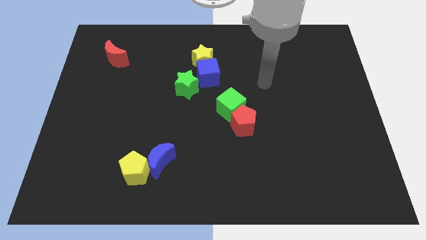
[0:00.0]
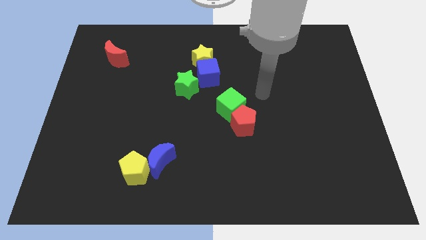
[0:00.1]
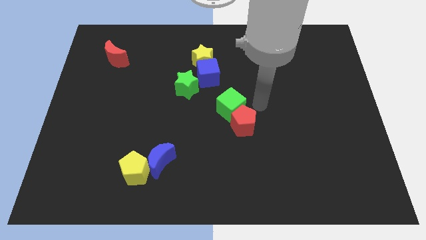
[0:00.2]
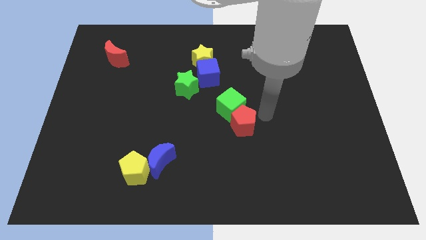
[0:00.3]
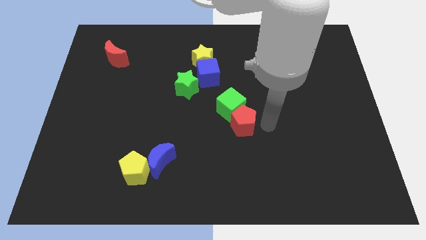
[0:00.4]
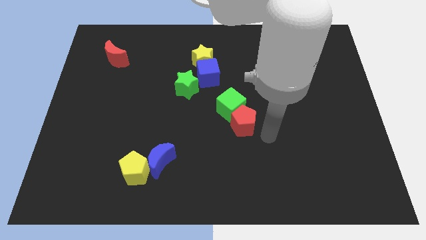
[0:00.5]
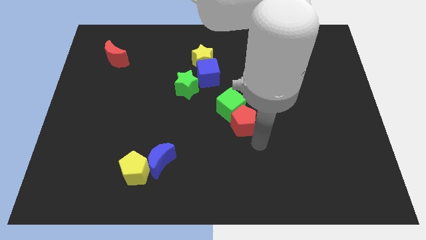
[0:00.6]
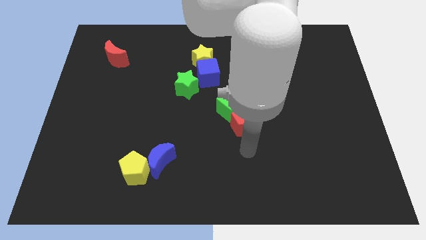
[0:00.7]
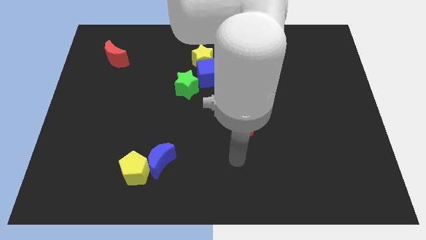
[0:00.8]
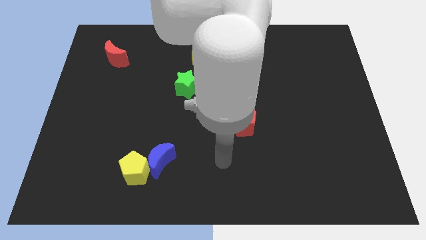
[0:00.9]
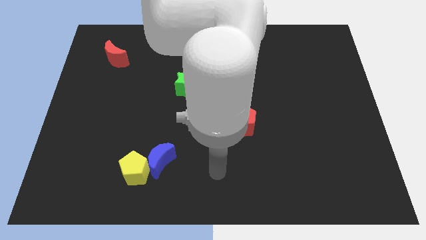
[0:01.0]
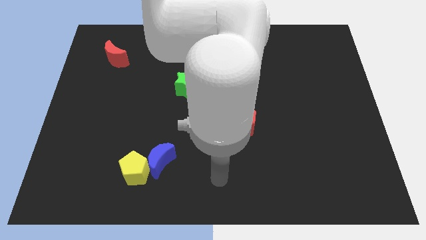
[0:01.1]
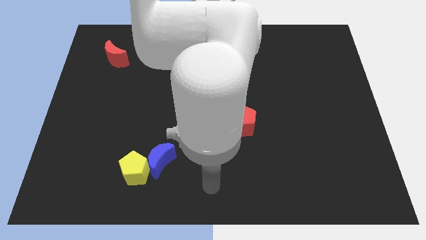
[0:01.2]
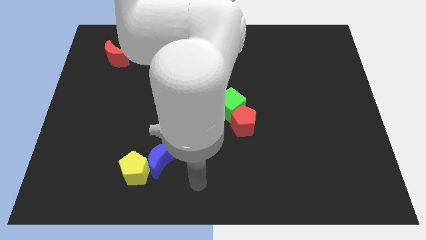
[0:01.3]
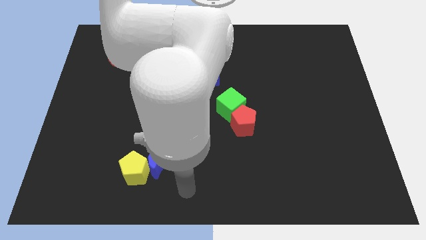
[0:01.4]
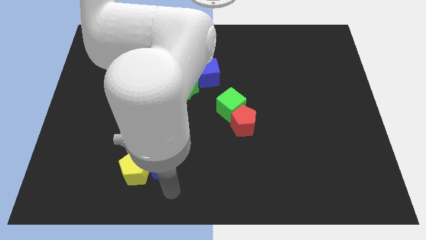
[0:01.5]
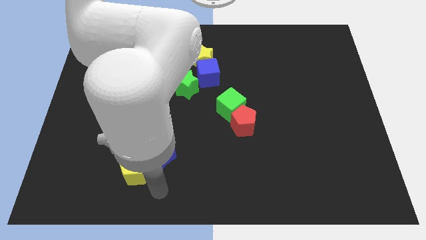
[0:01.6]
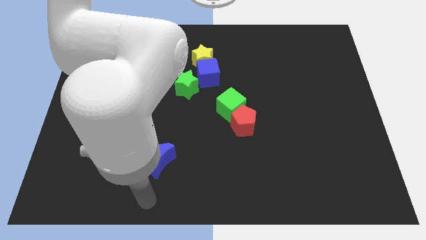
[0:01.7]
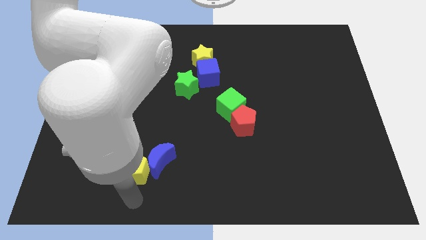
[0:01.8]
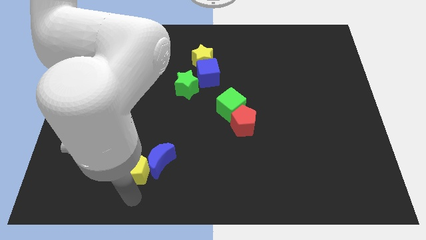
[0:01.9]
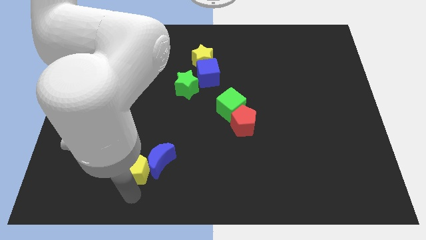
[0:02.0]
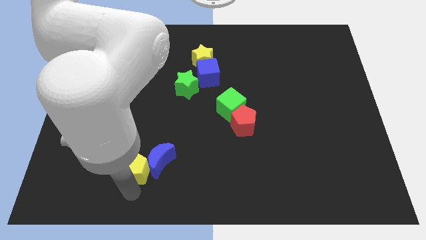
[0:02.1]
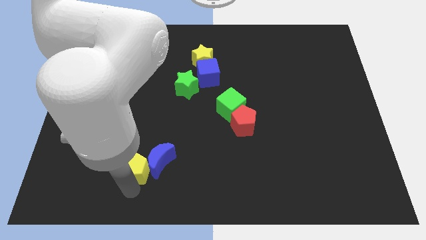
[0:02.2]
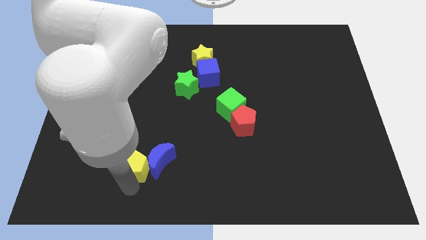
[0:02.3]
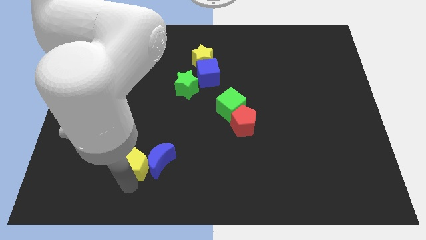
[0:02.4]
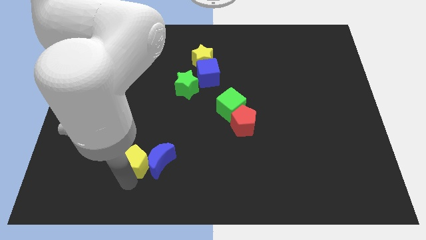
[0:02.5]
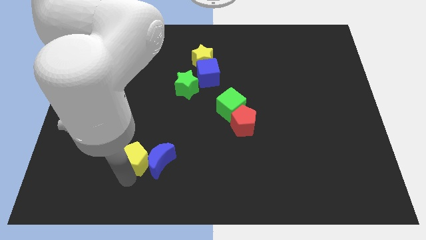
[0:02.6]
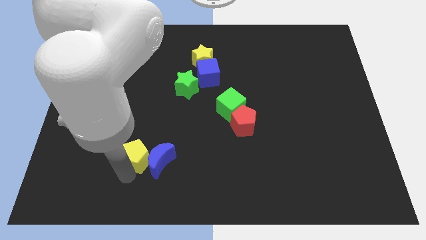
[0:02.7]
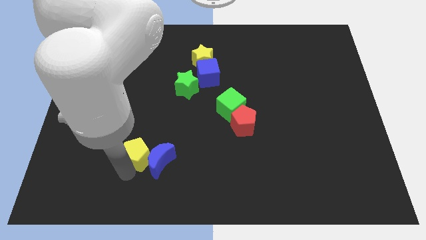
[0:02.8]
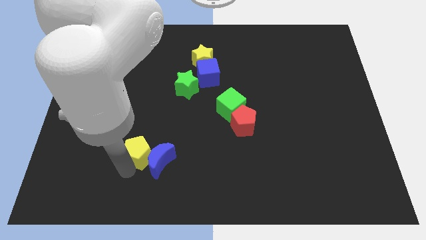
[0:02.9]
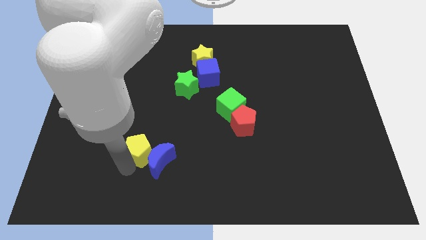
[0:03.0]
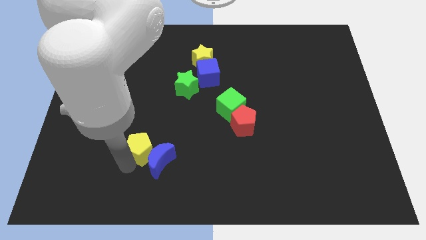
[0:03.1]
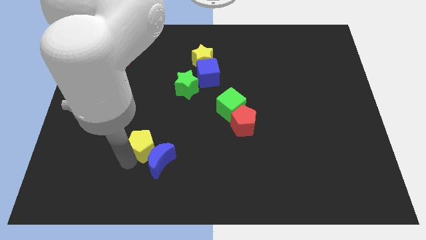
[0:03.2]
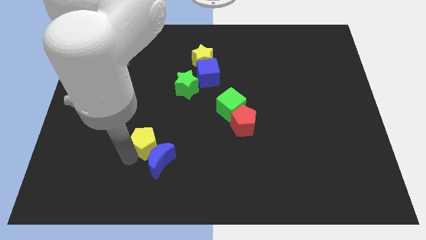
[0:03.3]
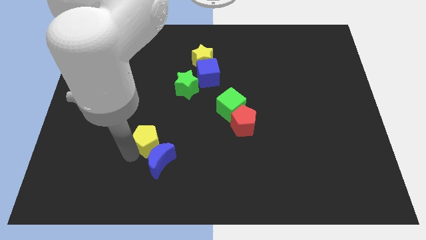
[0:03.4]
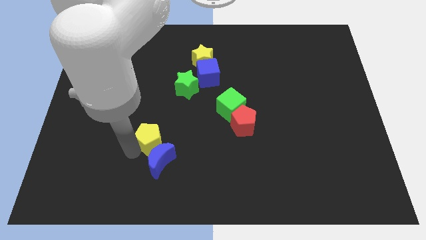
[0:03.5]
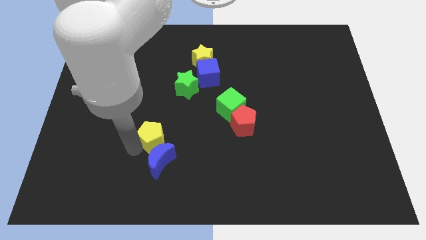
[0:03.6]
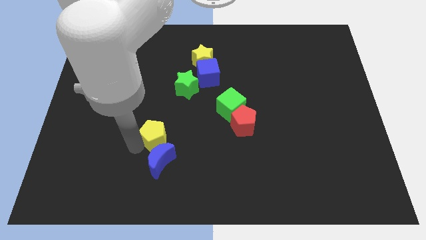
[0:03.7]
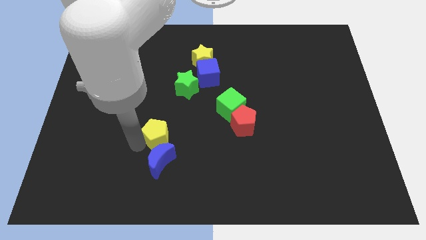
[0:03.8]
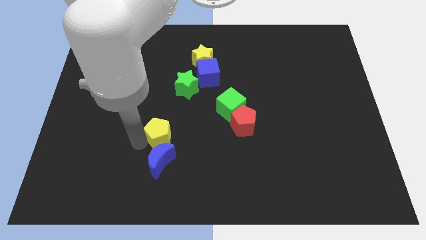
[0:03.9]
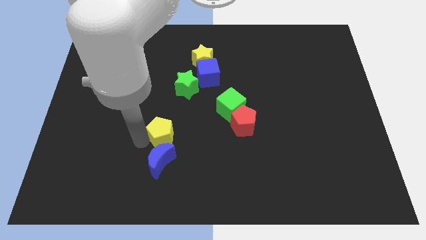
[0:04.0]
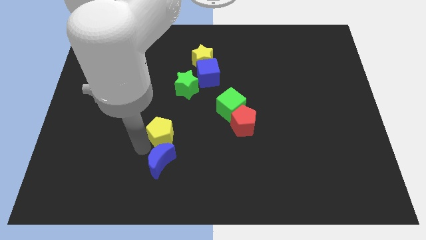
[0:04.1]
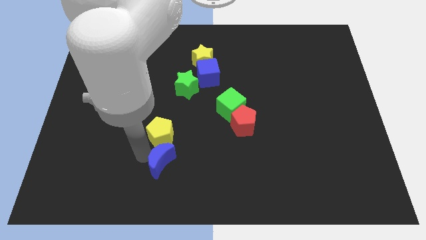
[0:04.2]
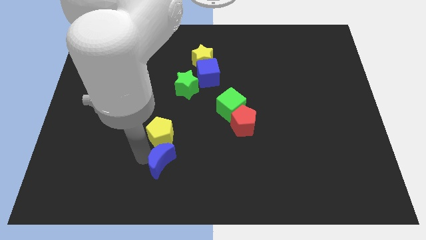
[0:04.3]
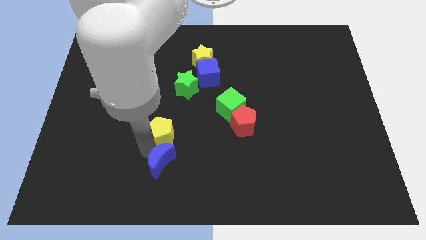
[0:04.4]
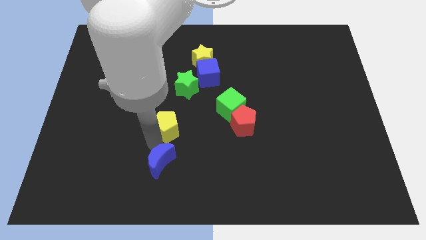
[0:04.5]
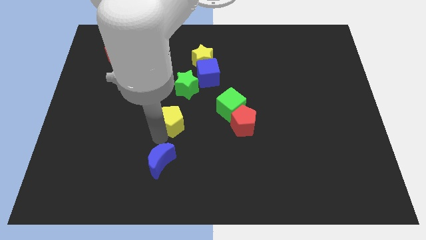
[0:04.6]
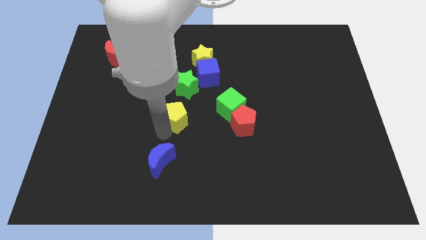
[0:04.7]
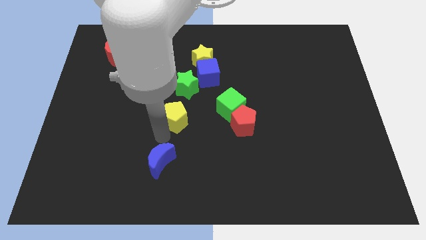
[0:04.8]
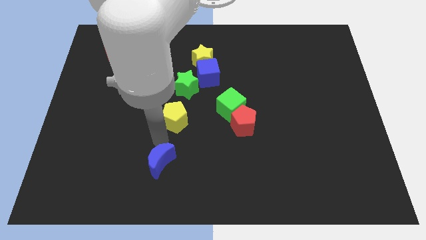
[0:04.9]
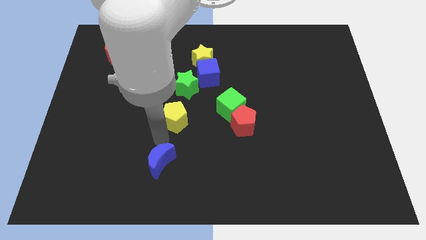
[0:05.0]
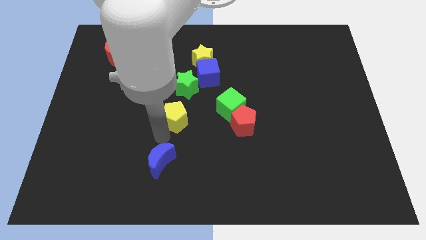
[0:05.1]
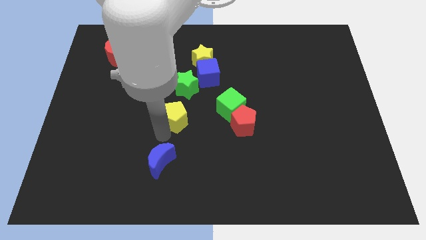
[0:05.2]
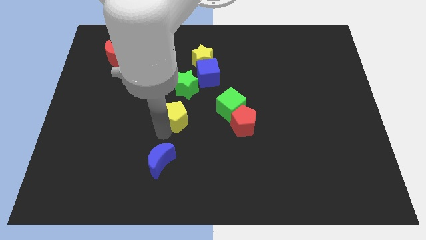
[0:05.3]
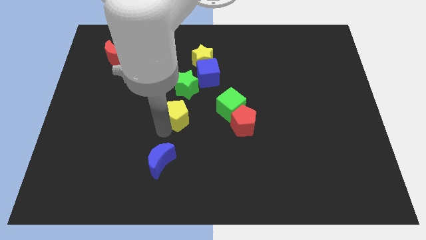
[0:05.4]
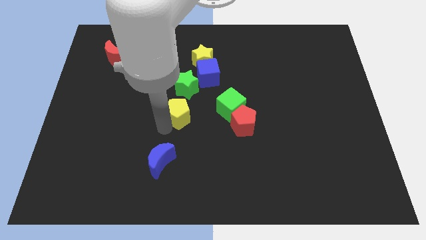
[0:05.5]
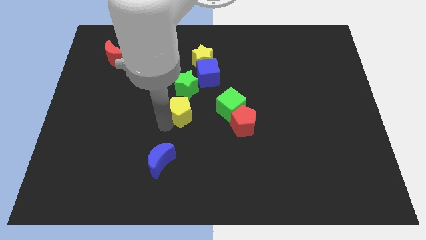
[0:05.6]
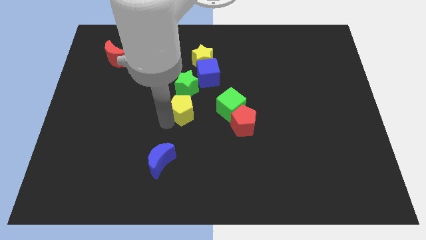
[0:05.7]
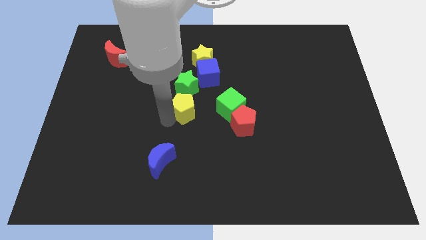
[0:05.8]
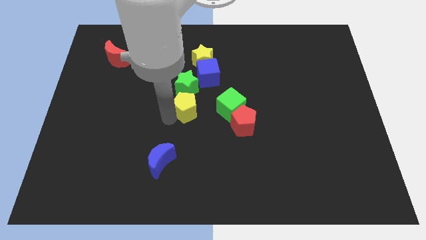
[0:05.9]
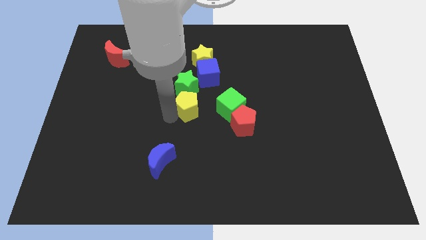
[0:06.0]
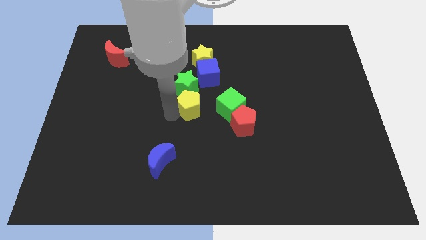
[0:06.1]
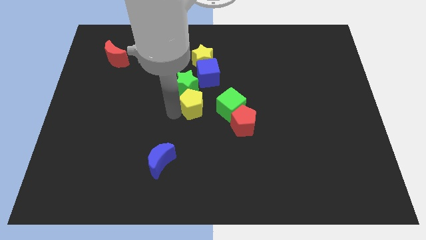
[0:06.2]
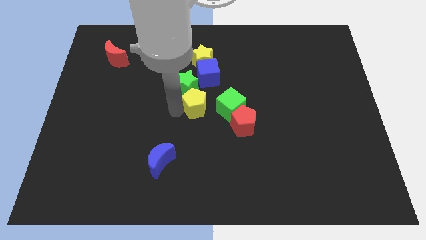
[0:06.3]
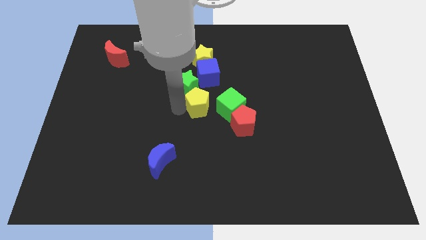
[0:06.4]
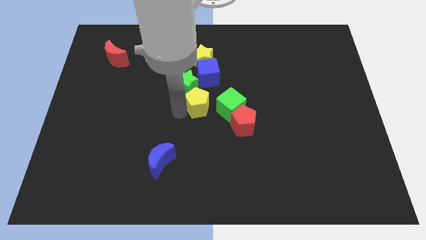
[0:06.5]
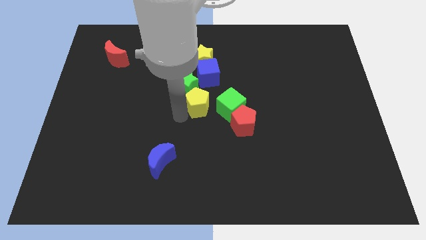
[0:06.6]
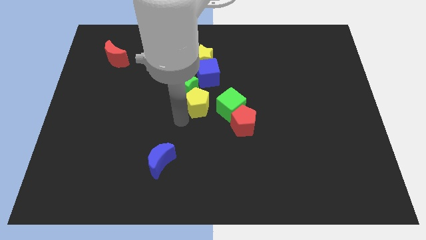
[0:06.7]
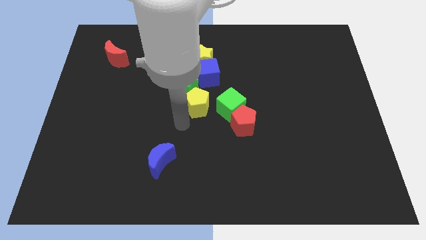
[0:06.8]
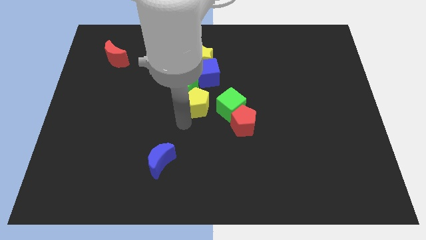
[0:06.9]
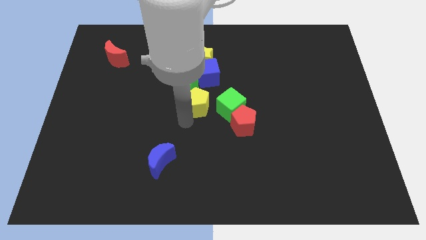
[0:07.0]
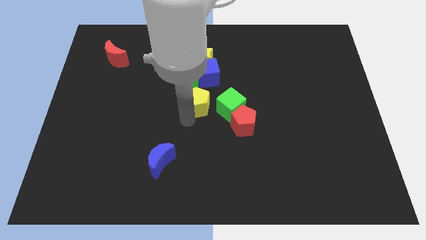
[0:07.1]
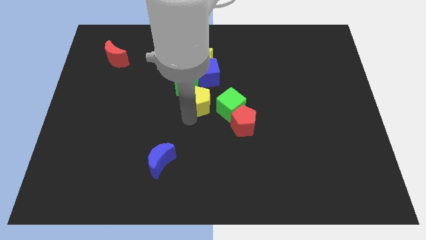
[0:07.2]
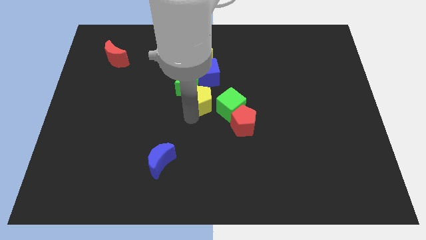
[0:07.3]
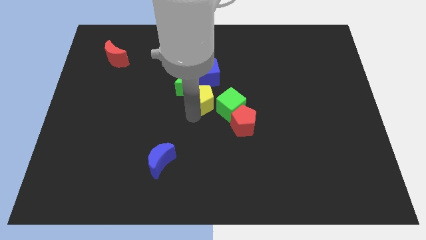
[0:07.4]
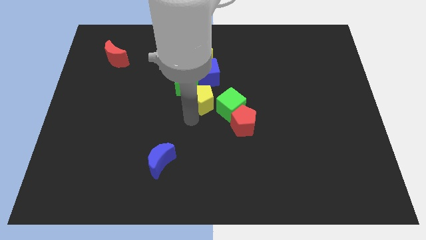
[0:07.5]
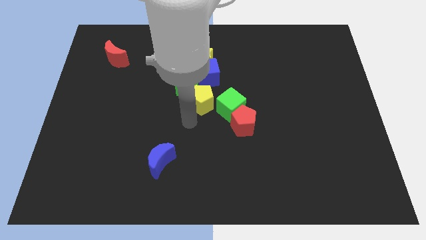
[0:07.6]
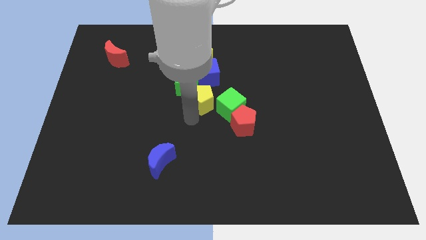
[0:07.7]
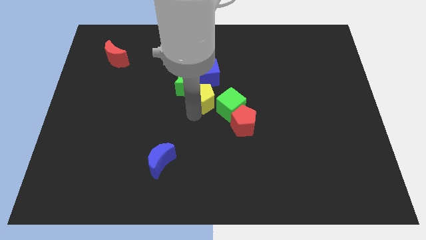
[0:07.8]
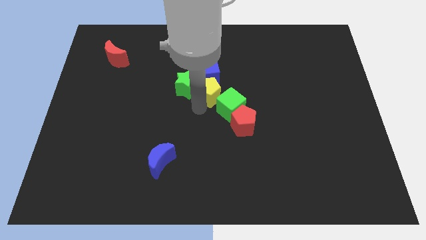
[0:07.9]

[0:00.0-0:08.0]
slide the yellow pentagon close to the blue cube

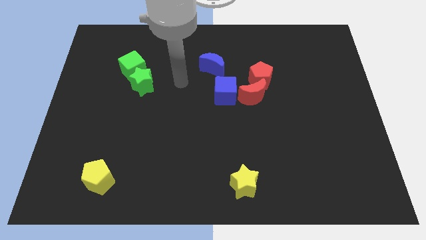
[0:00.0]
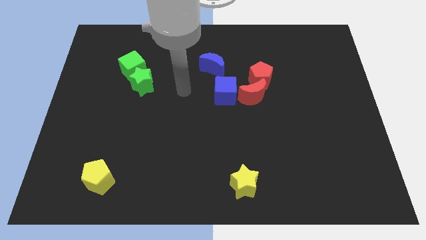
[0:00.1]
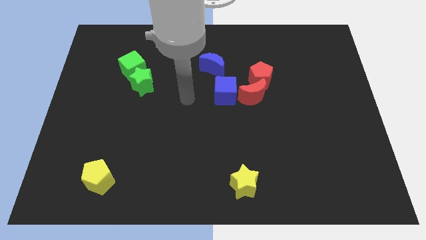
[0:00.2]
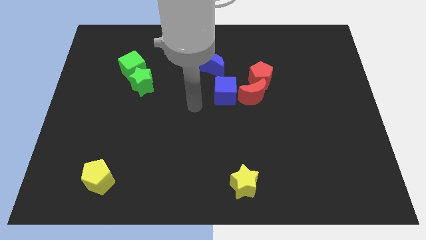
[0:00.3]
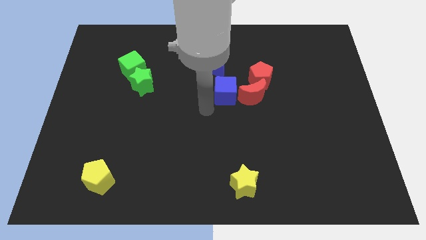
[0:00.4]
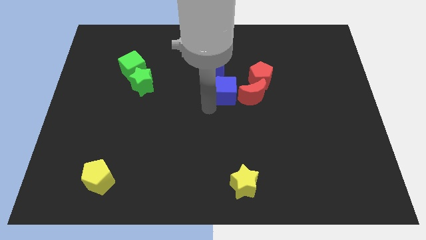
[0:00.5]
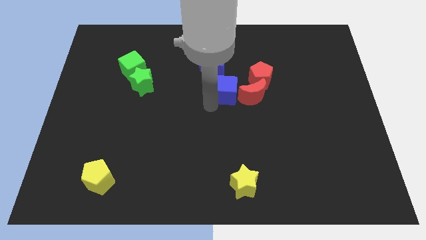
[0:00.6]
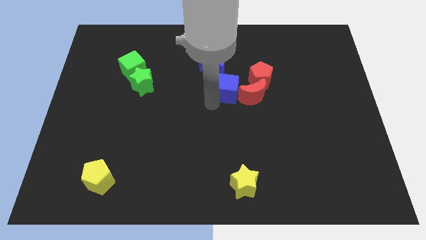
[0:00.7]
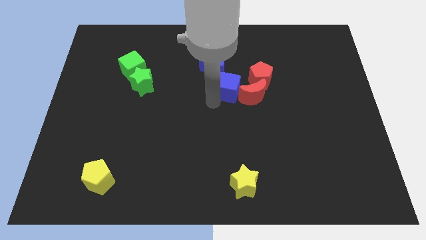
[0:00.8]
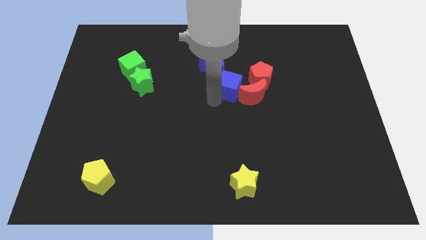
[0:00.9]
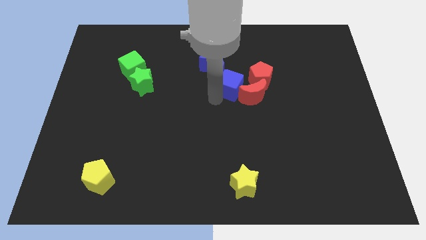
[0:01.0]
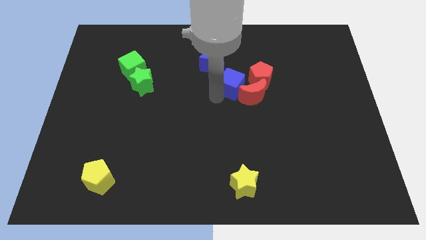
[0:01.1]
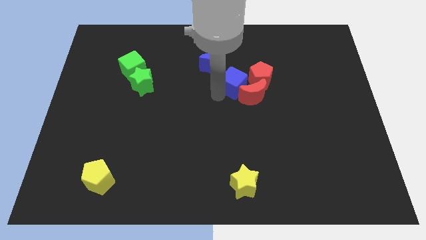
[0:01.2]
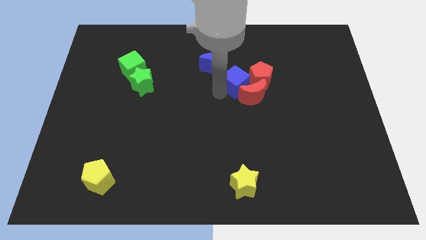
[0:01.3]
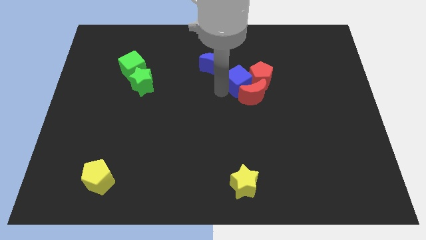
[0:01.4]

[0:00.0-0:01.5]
push the blue cube to the red pentagon
